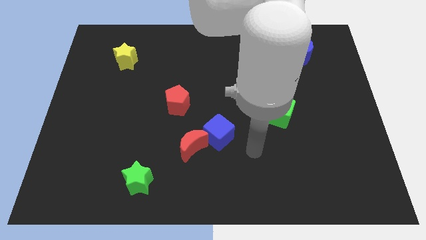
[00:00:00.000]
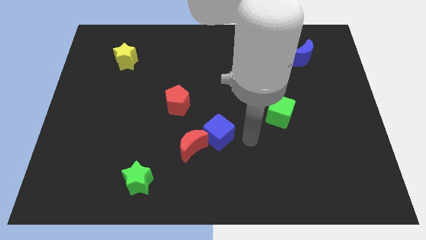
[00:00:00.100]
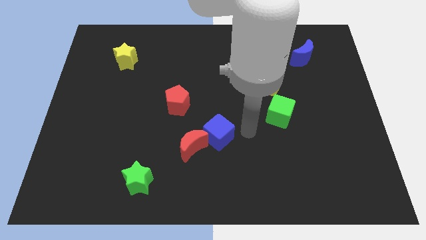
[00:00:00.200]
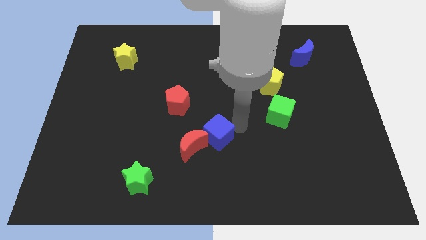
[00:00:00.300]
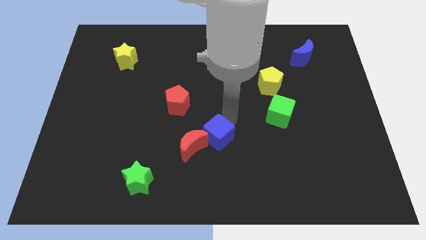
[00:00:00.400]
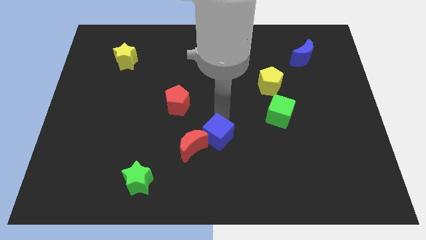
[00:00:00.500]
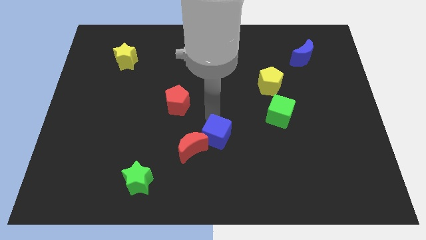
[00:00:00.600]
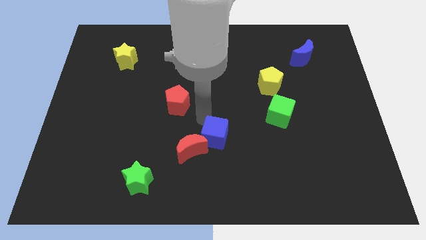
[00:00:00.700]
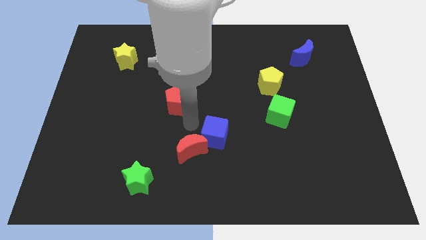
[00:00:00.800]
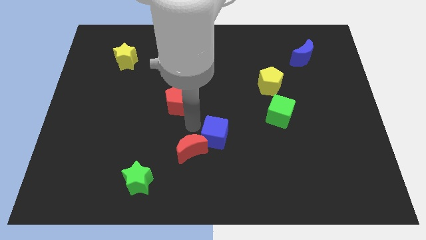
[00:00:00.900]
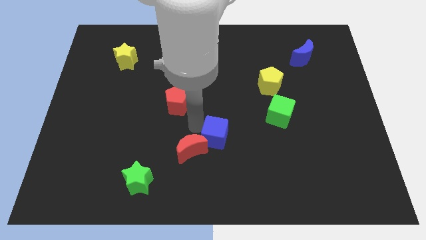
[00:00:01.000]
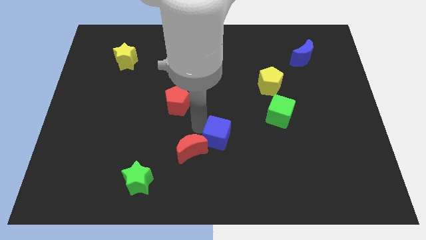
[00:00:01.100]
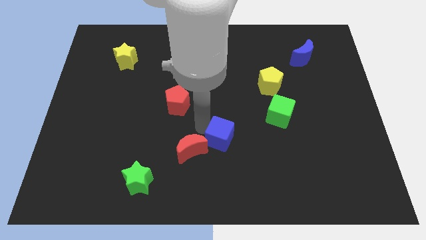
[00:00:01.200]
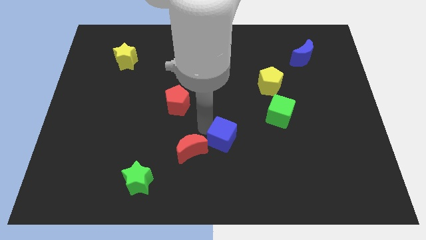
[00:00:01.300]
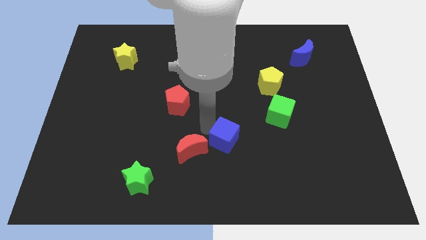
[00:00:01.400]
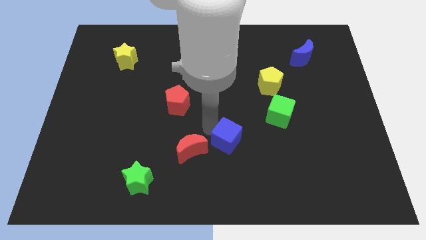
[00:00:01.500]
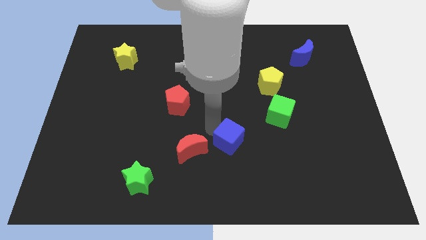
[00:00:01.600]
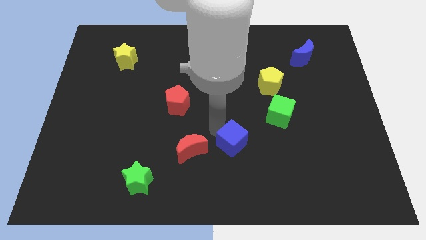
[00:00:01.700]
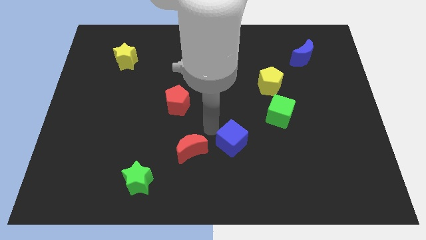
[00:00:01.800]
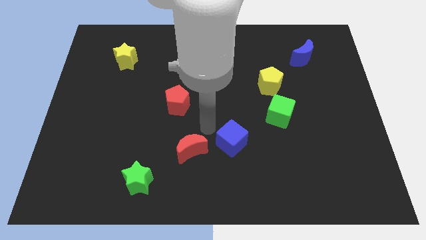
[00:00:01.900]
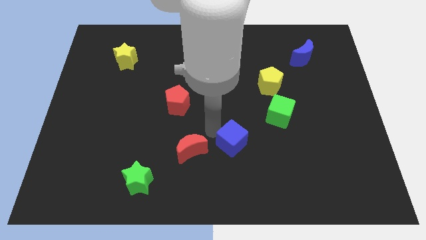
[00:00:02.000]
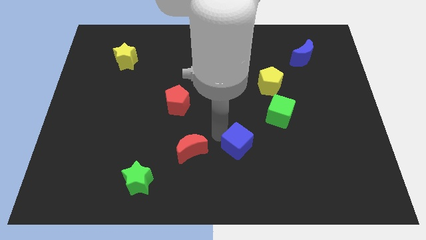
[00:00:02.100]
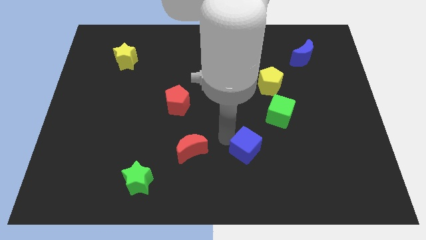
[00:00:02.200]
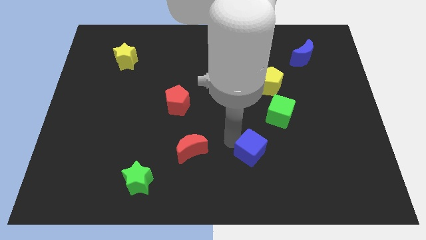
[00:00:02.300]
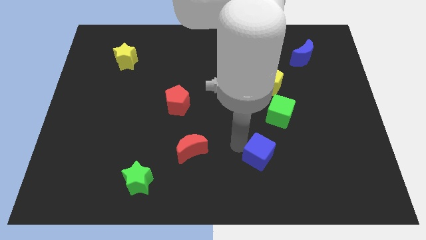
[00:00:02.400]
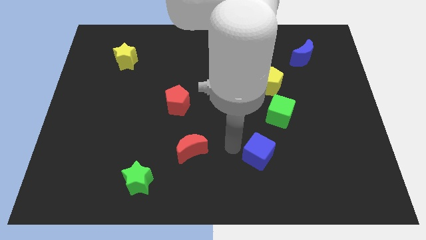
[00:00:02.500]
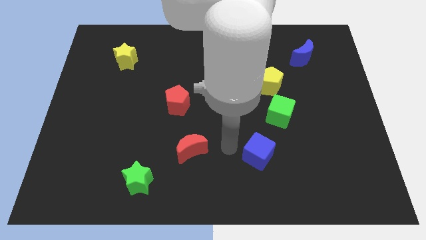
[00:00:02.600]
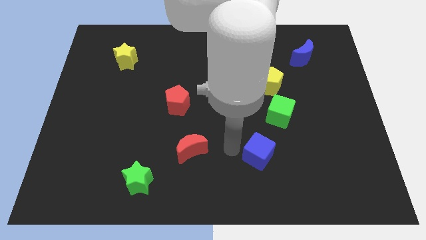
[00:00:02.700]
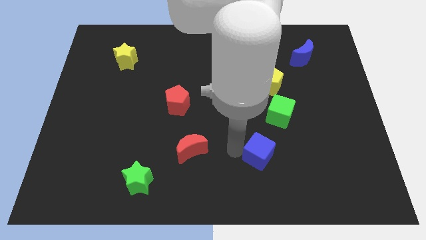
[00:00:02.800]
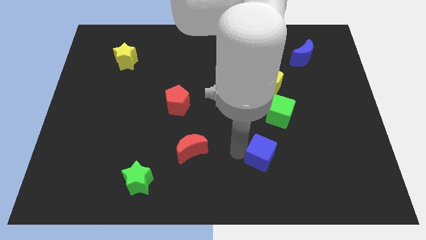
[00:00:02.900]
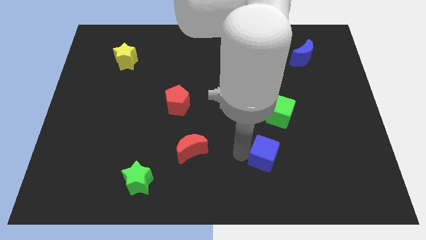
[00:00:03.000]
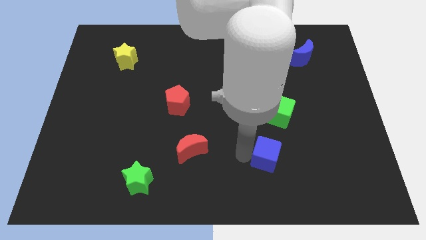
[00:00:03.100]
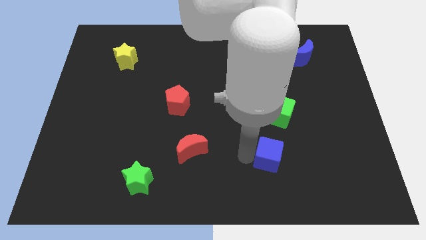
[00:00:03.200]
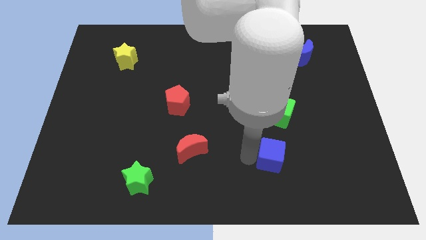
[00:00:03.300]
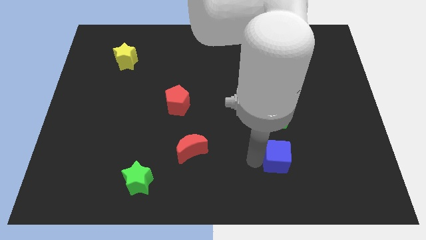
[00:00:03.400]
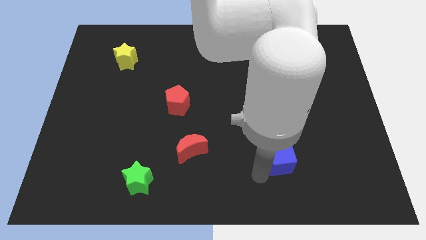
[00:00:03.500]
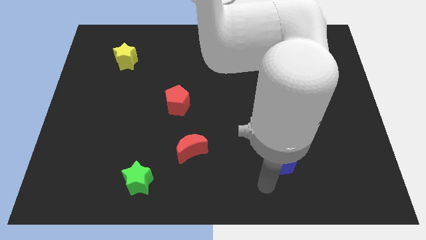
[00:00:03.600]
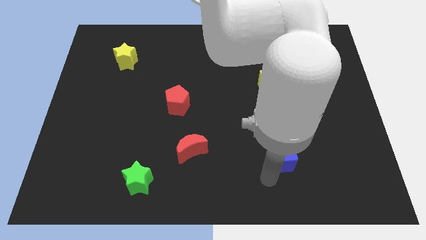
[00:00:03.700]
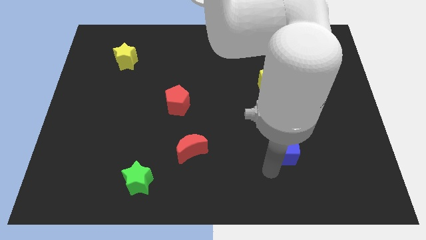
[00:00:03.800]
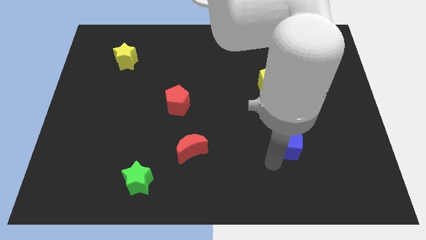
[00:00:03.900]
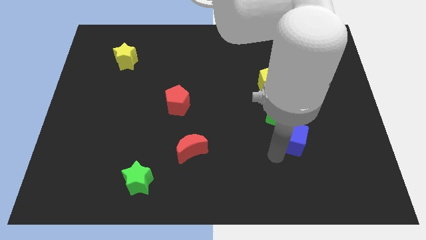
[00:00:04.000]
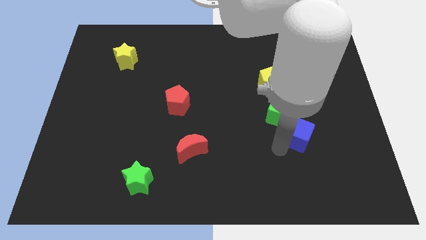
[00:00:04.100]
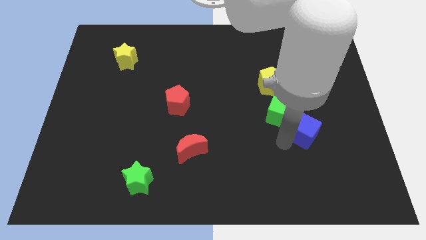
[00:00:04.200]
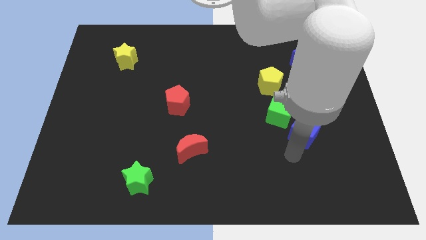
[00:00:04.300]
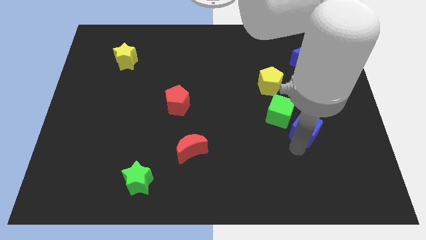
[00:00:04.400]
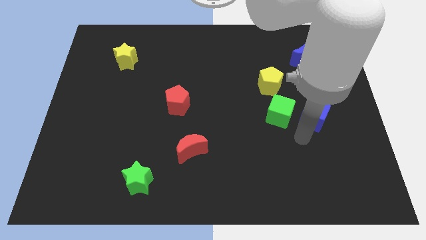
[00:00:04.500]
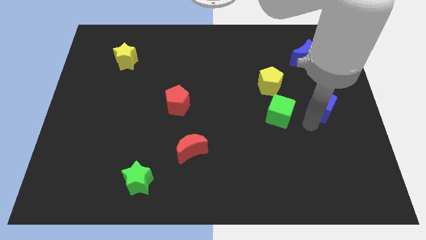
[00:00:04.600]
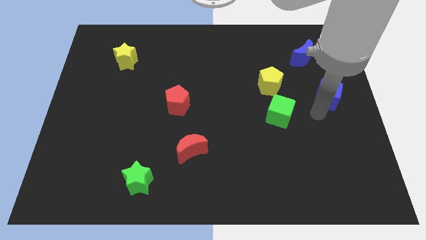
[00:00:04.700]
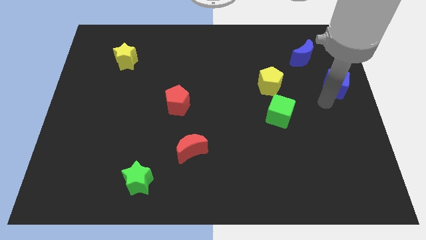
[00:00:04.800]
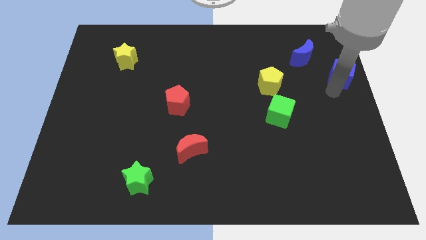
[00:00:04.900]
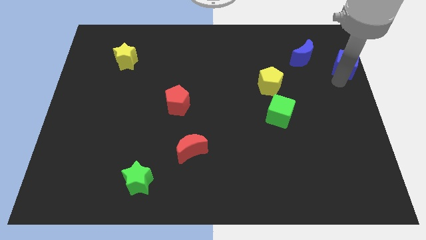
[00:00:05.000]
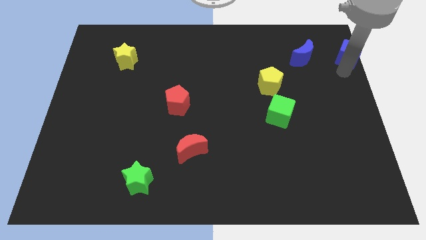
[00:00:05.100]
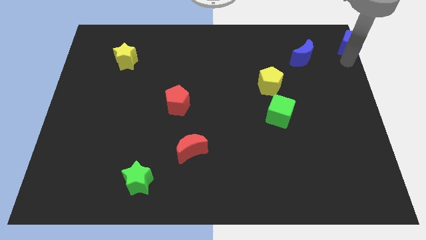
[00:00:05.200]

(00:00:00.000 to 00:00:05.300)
slide the blue cube to the upper right corner

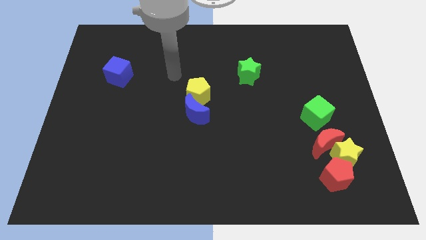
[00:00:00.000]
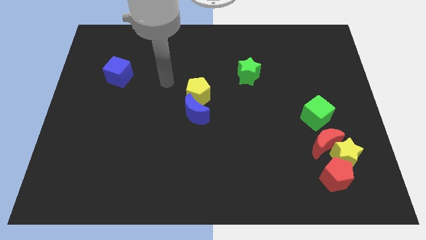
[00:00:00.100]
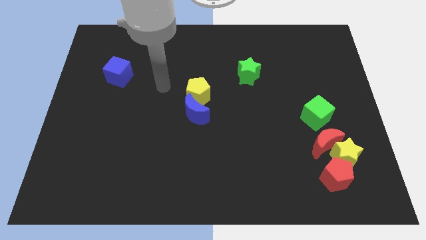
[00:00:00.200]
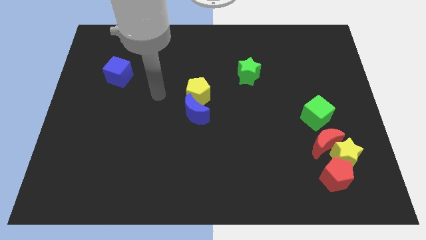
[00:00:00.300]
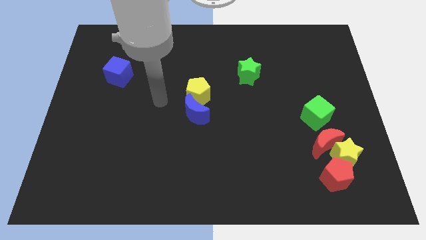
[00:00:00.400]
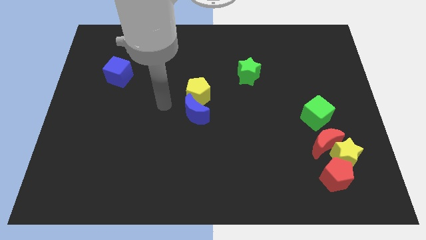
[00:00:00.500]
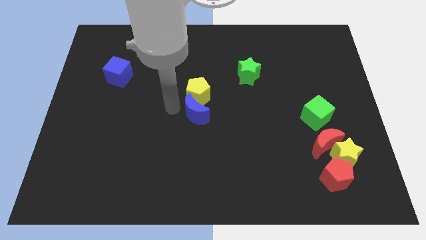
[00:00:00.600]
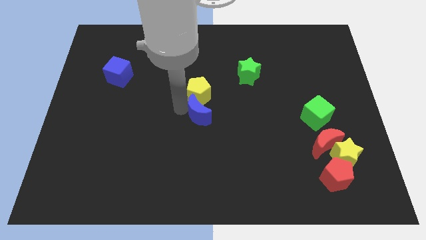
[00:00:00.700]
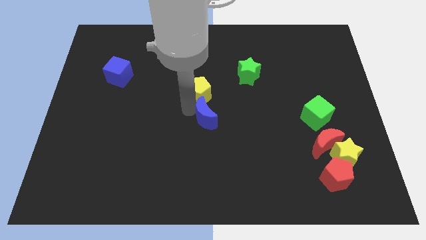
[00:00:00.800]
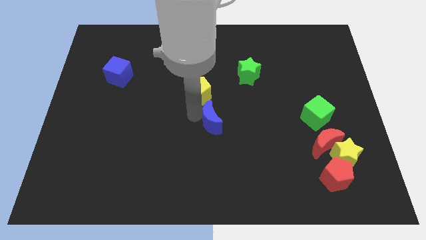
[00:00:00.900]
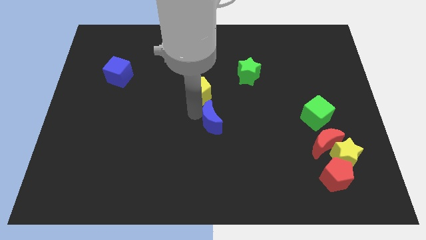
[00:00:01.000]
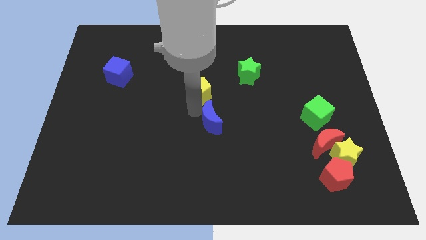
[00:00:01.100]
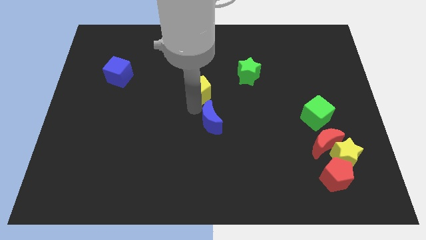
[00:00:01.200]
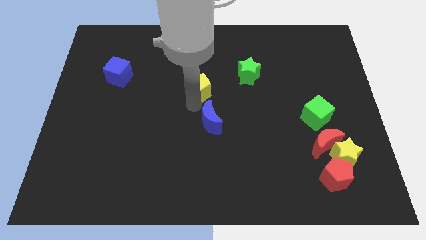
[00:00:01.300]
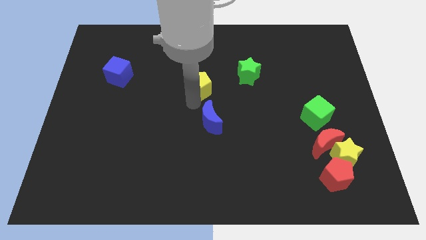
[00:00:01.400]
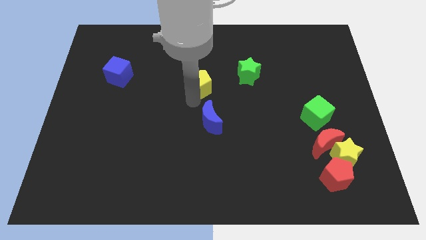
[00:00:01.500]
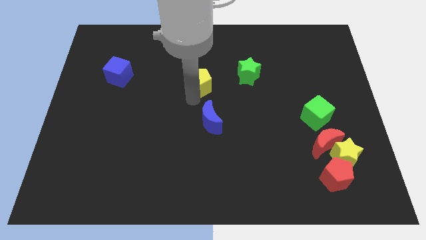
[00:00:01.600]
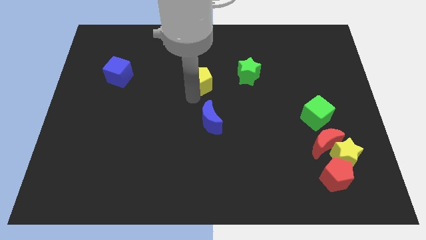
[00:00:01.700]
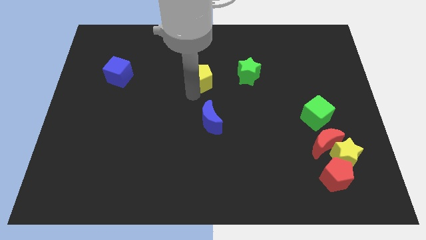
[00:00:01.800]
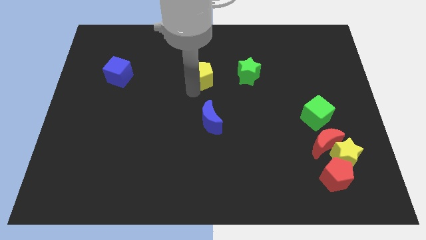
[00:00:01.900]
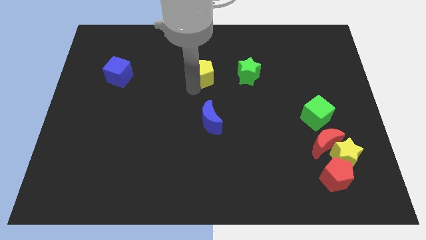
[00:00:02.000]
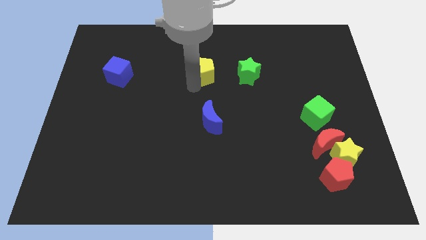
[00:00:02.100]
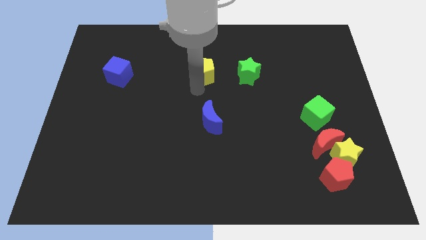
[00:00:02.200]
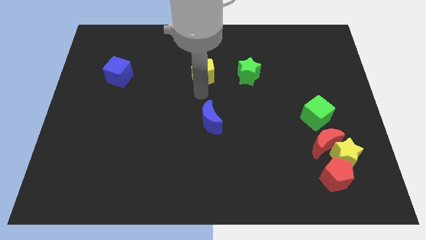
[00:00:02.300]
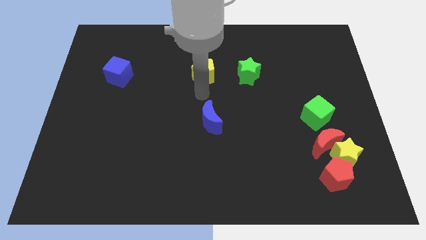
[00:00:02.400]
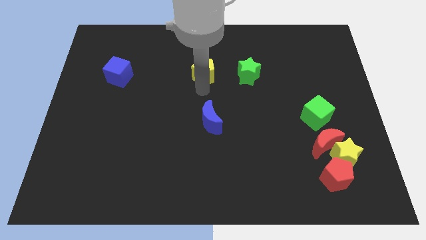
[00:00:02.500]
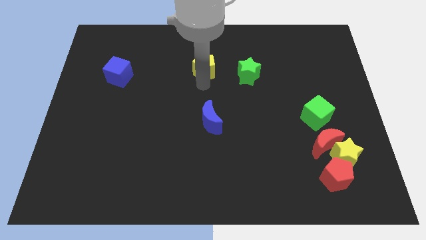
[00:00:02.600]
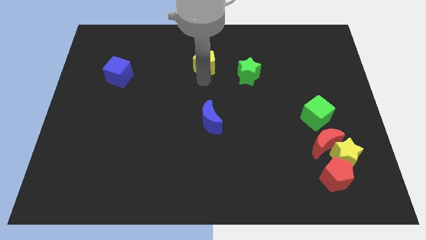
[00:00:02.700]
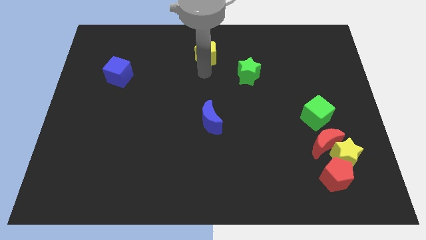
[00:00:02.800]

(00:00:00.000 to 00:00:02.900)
put the yellow pentagon to the top side
